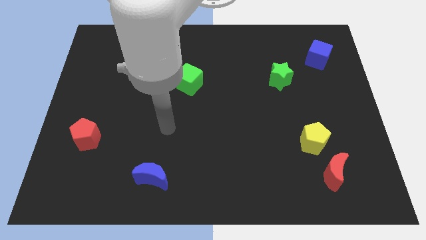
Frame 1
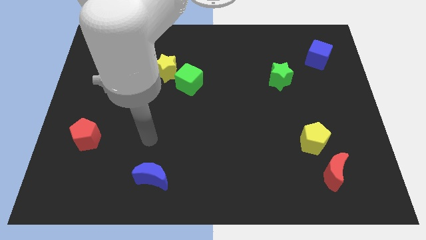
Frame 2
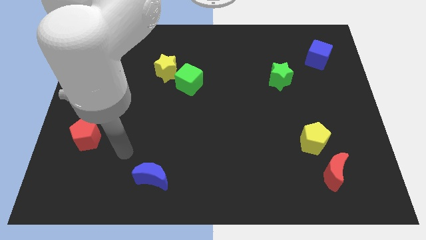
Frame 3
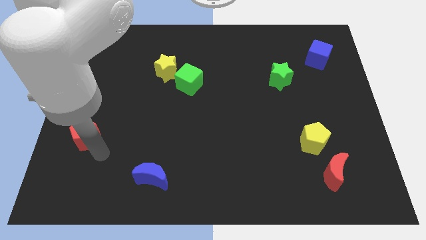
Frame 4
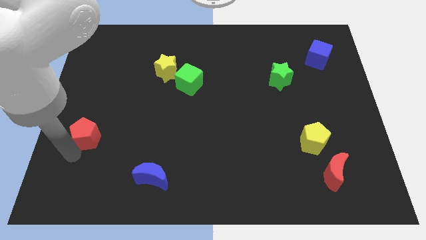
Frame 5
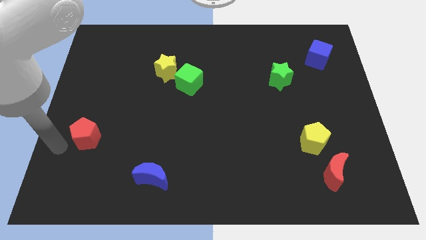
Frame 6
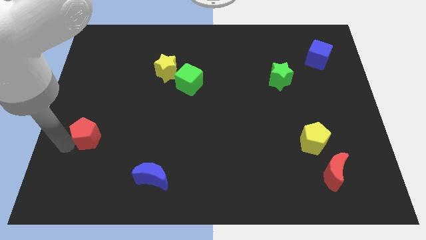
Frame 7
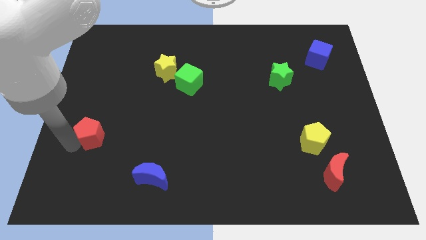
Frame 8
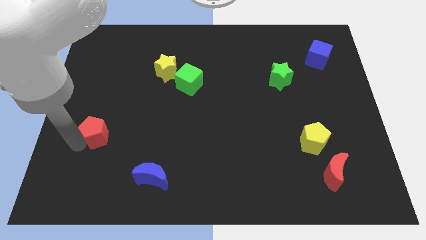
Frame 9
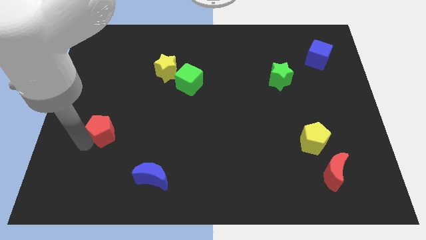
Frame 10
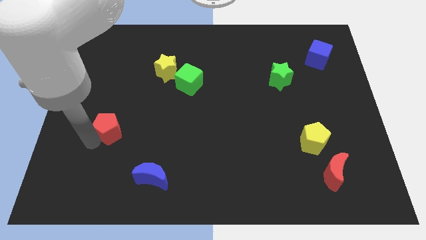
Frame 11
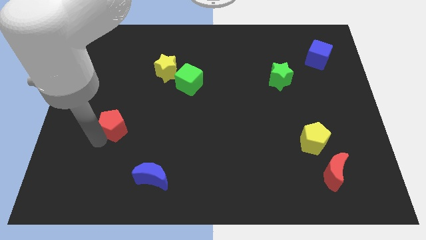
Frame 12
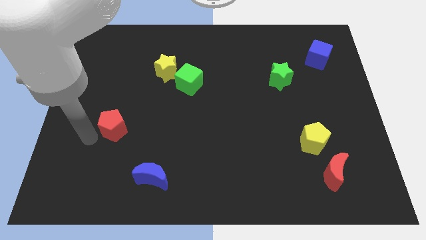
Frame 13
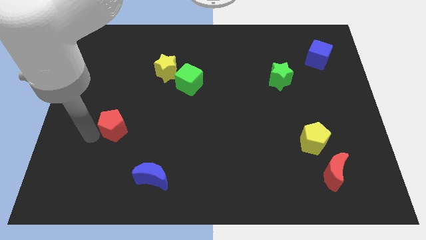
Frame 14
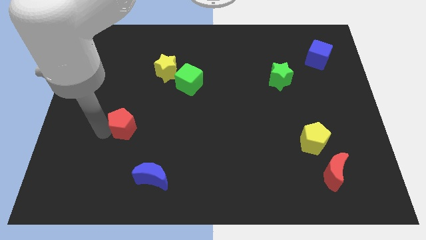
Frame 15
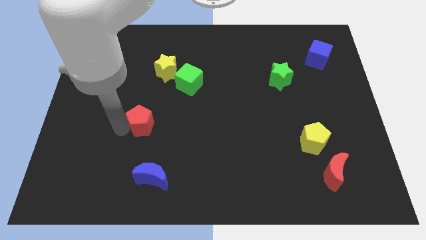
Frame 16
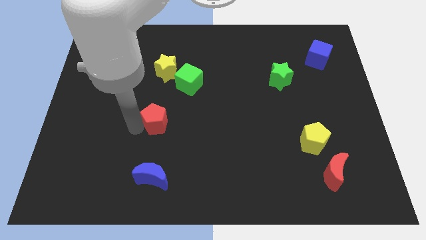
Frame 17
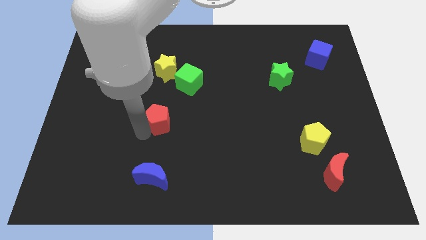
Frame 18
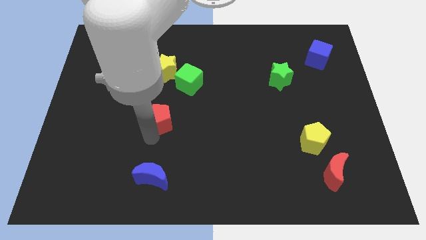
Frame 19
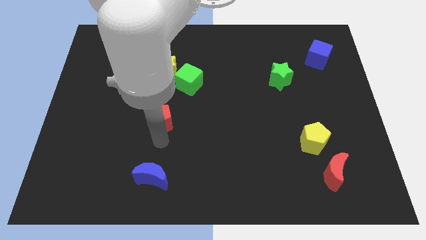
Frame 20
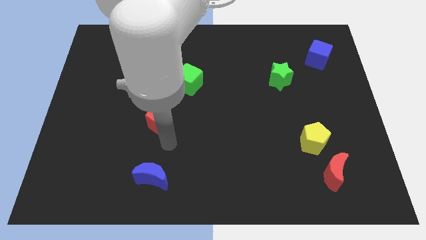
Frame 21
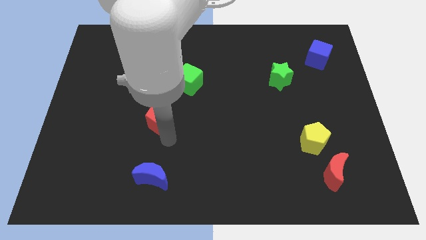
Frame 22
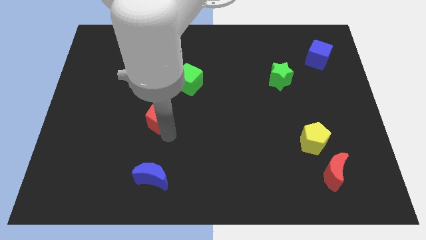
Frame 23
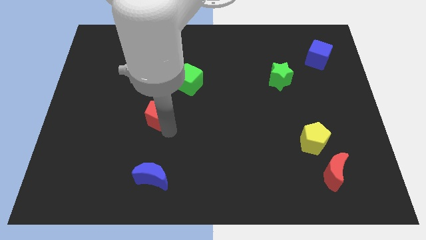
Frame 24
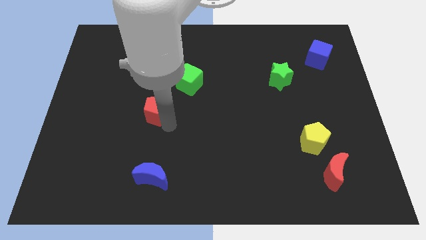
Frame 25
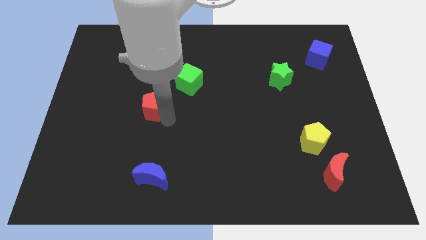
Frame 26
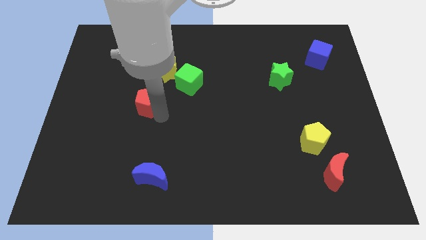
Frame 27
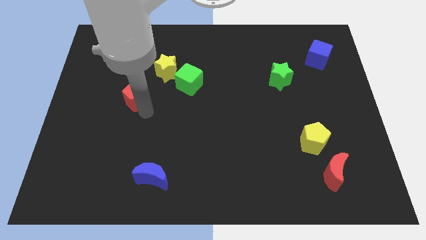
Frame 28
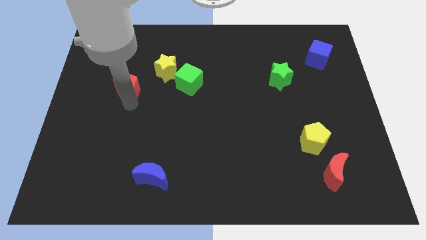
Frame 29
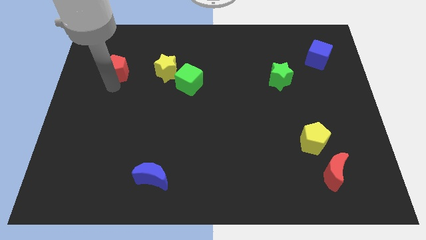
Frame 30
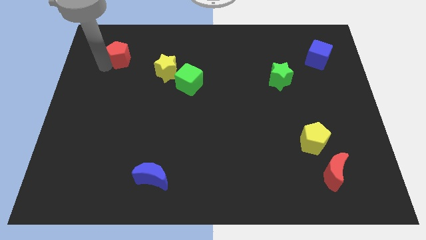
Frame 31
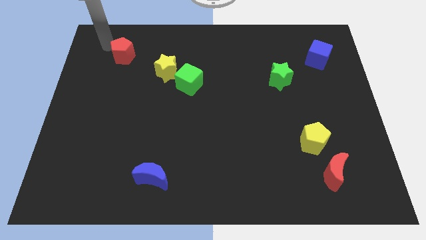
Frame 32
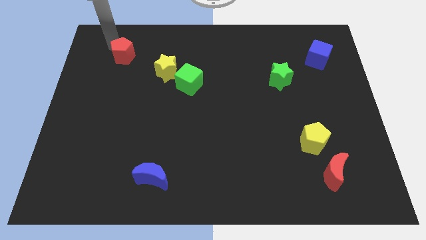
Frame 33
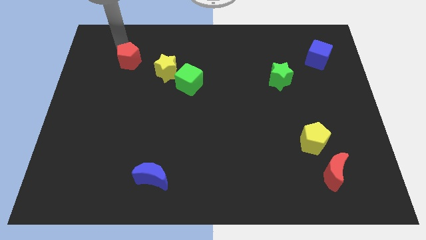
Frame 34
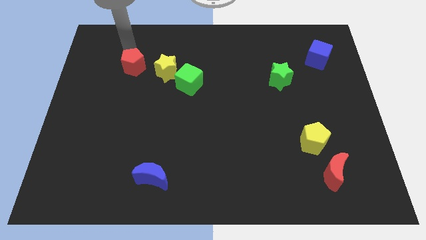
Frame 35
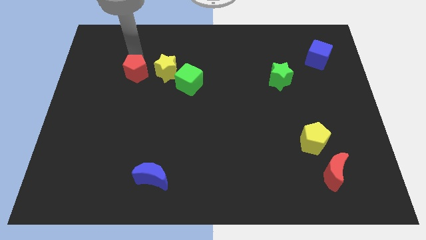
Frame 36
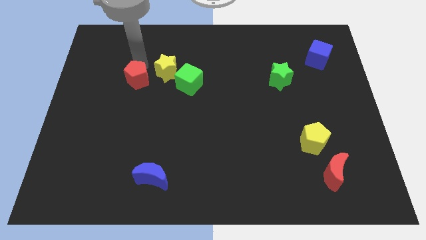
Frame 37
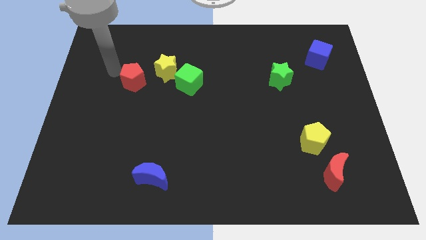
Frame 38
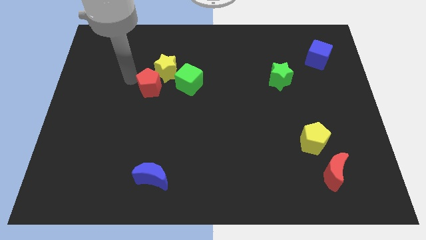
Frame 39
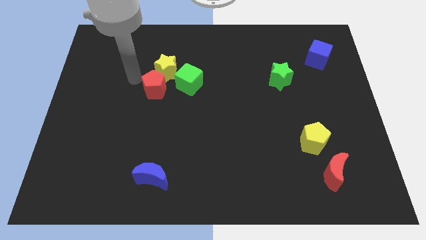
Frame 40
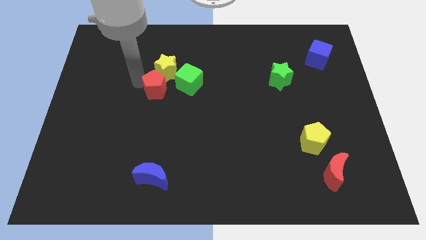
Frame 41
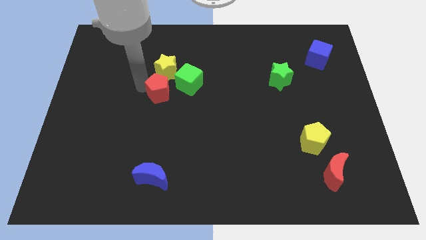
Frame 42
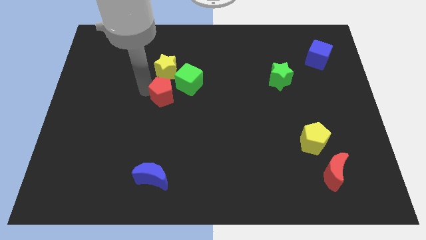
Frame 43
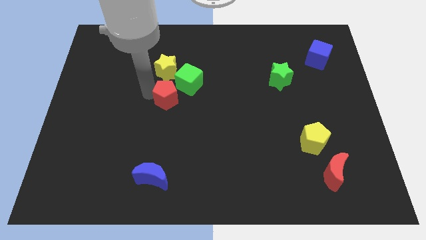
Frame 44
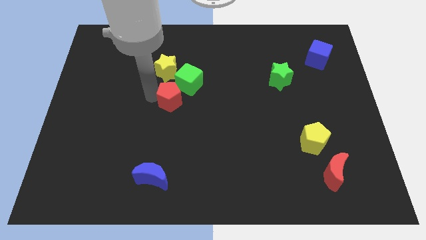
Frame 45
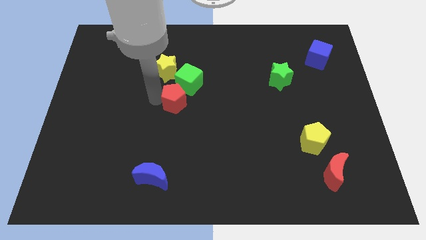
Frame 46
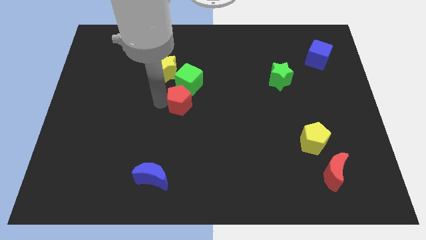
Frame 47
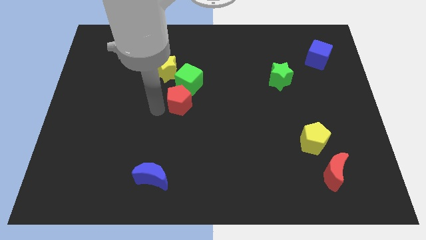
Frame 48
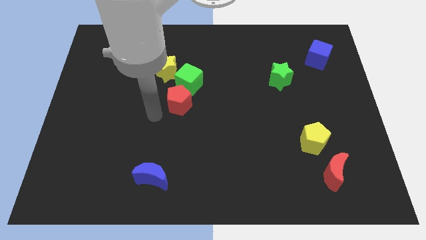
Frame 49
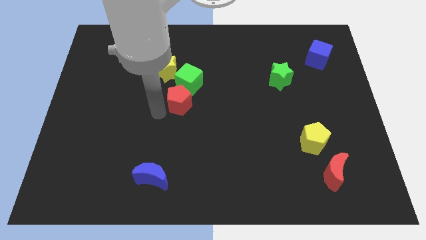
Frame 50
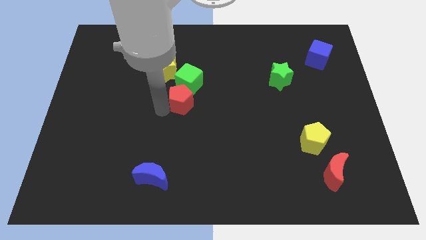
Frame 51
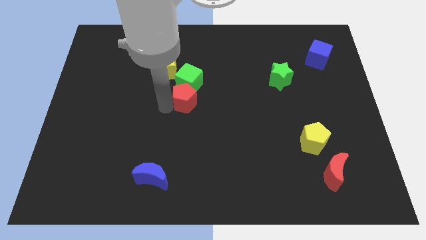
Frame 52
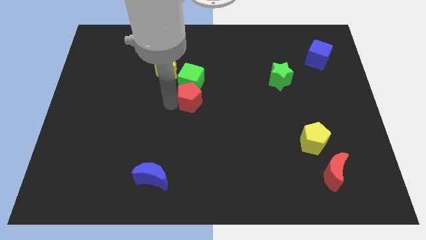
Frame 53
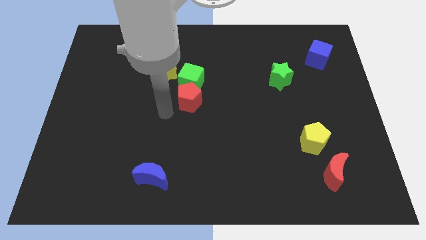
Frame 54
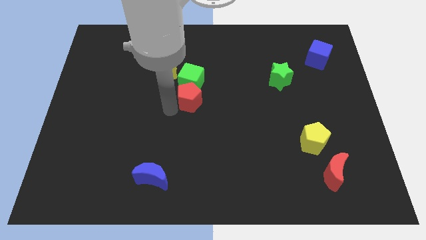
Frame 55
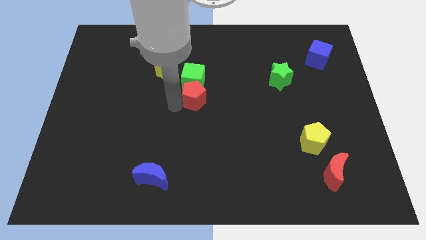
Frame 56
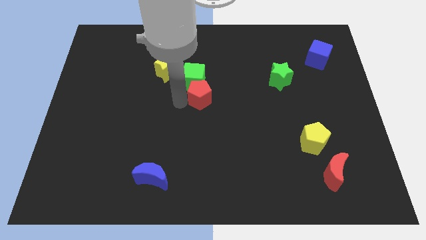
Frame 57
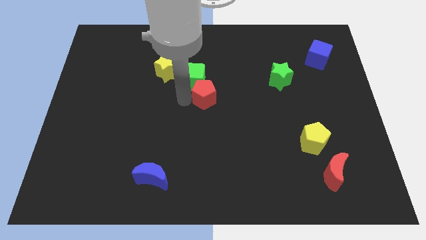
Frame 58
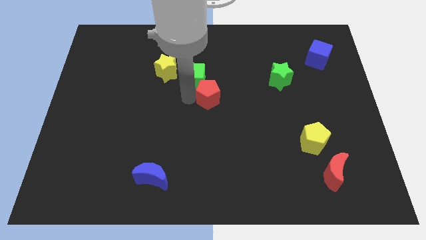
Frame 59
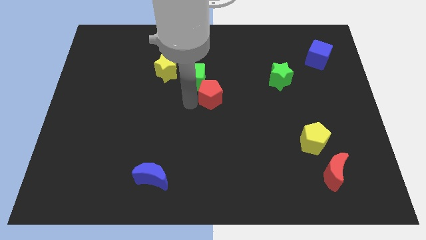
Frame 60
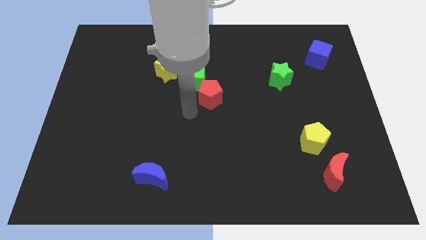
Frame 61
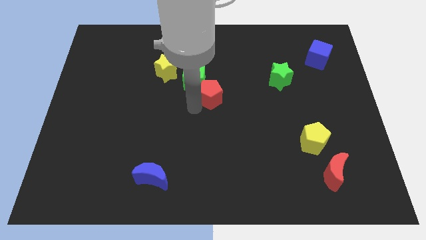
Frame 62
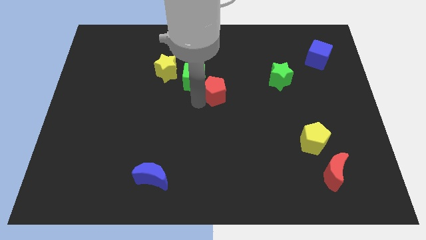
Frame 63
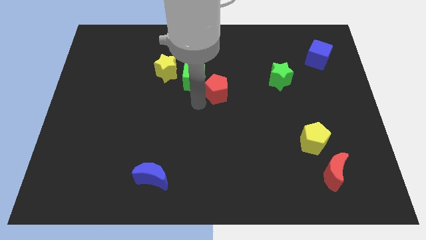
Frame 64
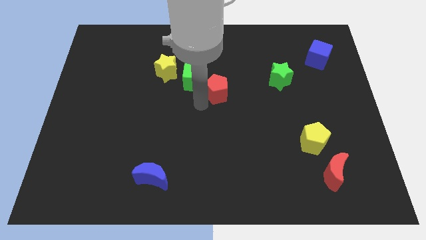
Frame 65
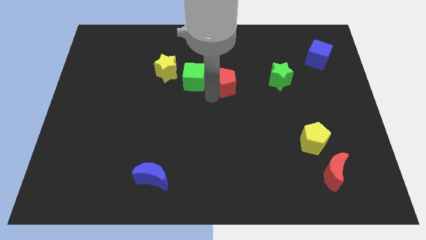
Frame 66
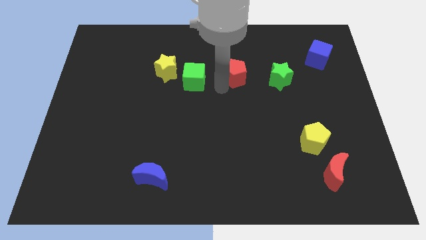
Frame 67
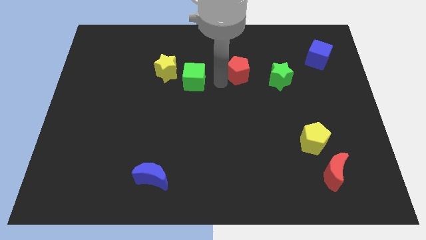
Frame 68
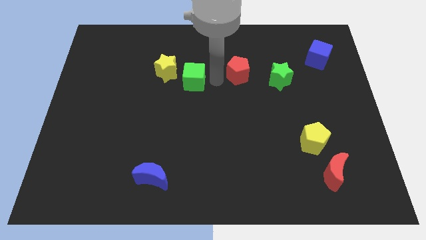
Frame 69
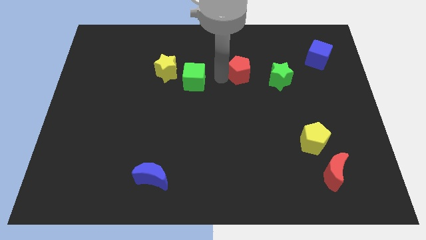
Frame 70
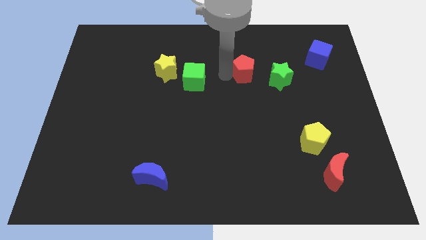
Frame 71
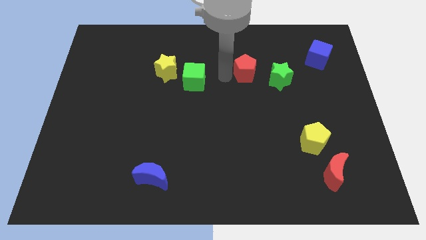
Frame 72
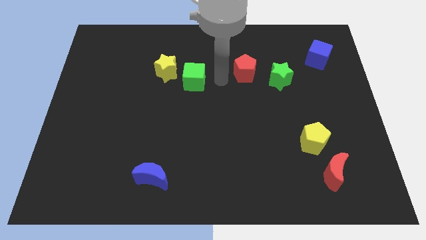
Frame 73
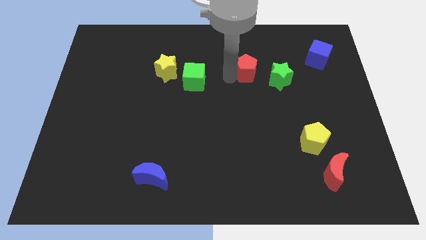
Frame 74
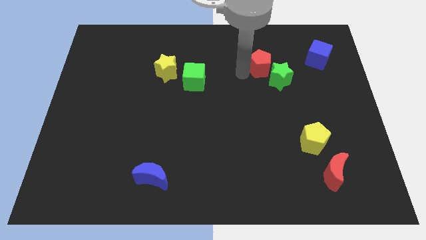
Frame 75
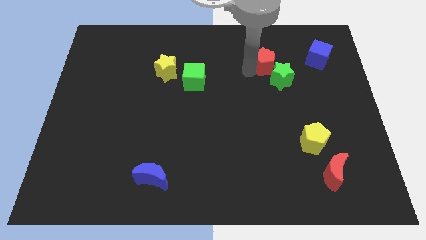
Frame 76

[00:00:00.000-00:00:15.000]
put the red pentagon to the left side of the blue cube

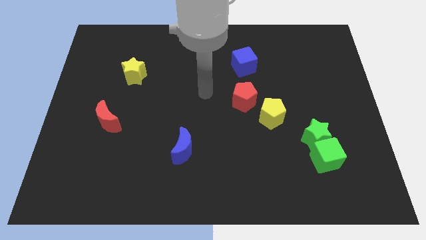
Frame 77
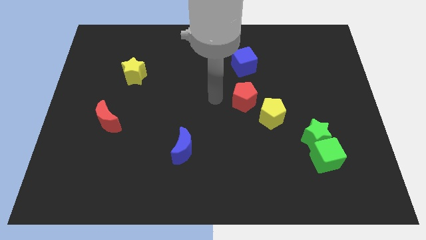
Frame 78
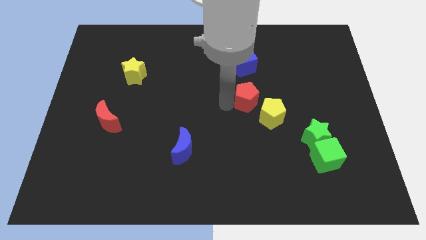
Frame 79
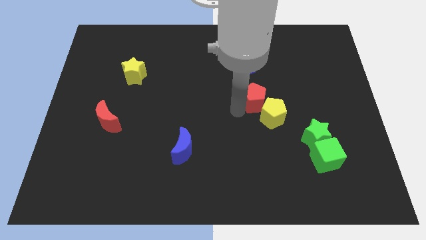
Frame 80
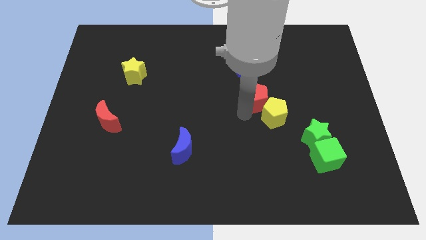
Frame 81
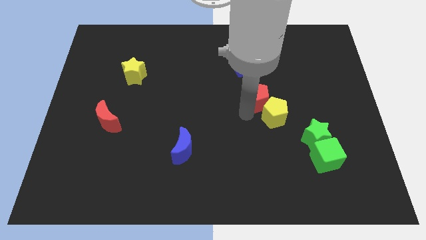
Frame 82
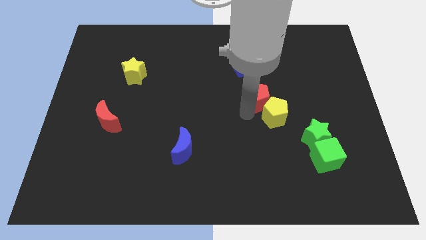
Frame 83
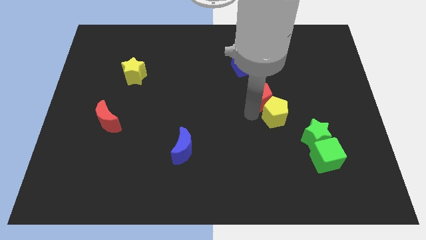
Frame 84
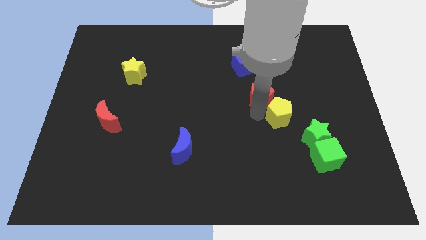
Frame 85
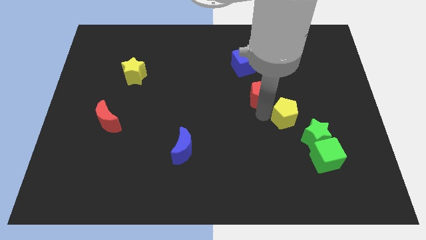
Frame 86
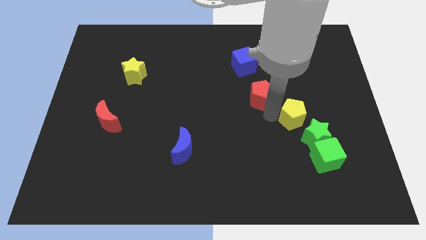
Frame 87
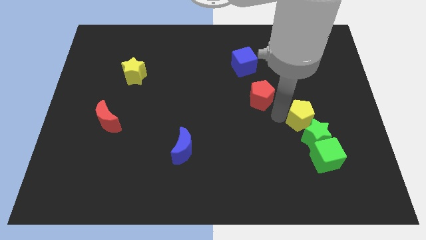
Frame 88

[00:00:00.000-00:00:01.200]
put the yellow pentagon above the green cube
